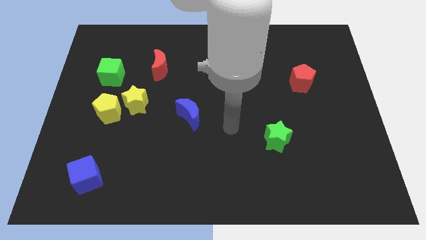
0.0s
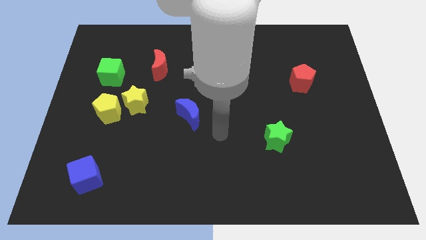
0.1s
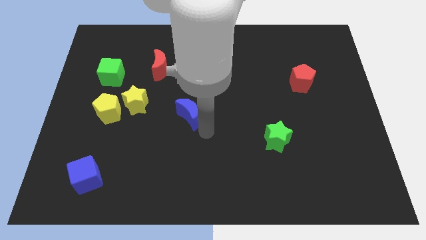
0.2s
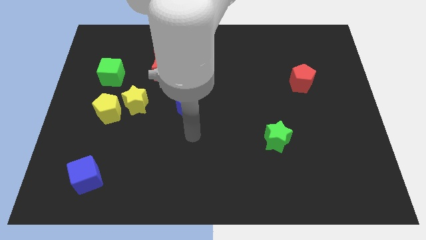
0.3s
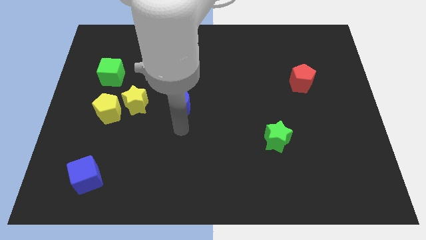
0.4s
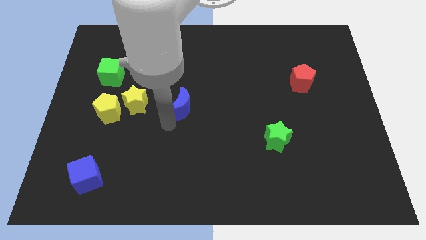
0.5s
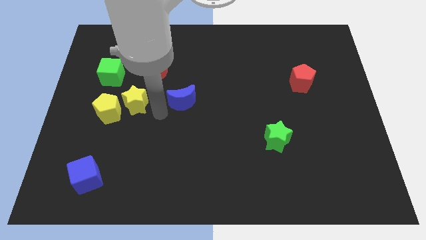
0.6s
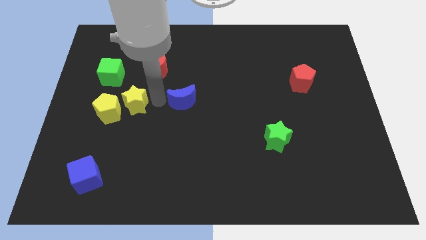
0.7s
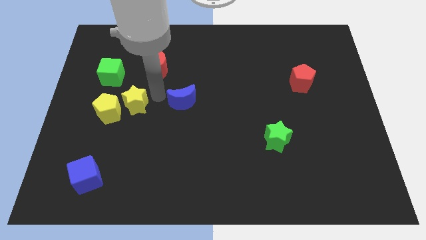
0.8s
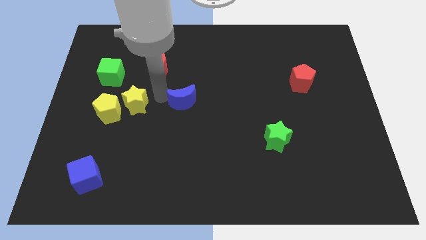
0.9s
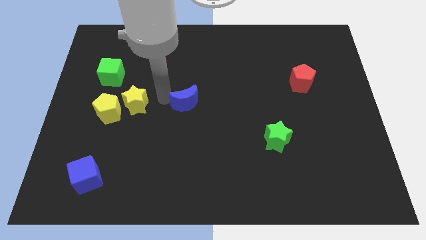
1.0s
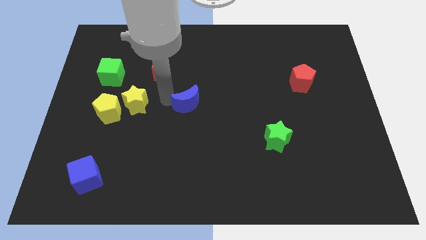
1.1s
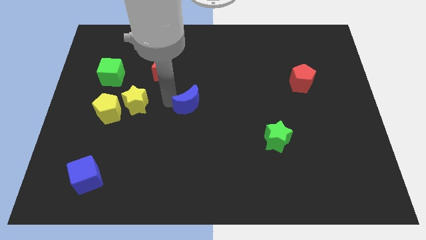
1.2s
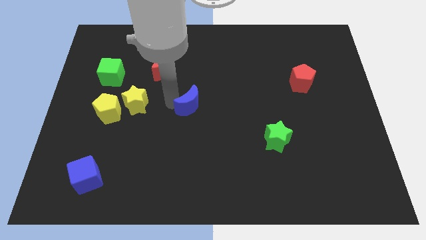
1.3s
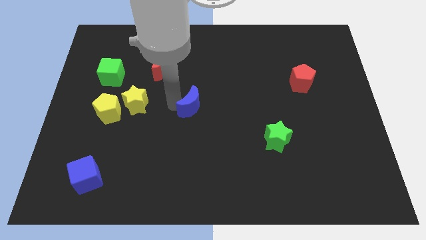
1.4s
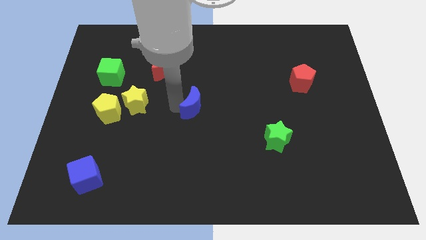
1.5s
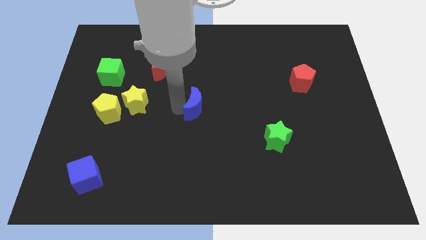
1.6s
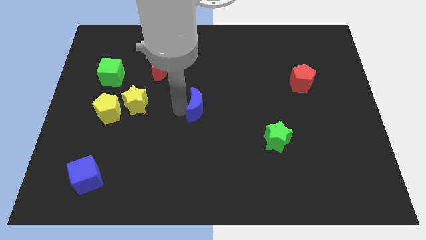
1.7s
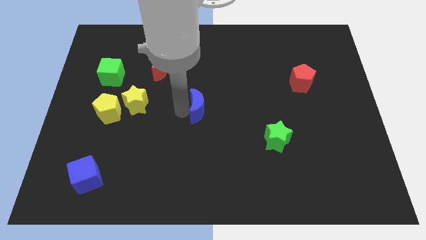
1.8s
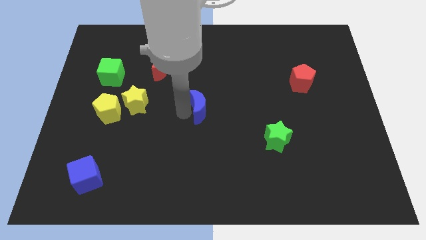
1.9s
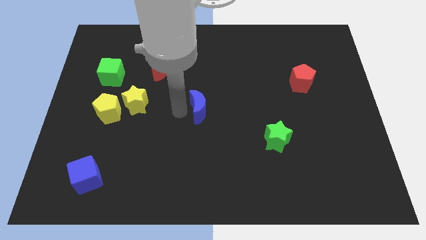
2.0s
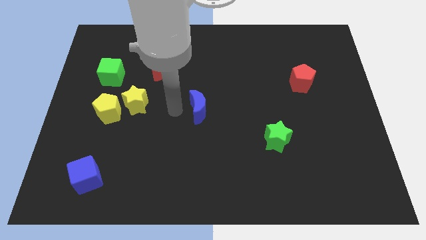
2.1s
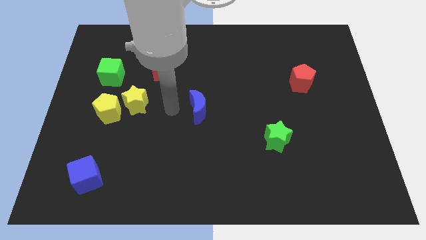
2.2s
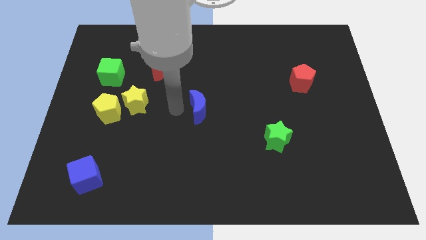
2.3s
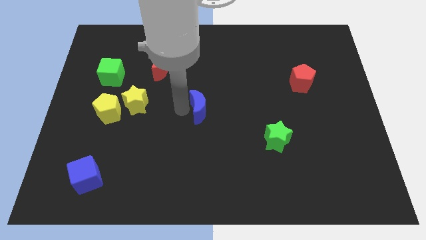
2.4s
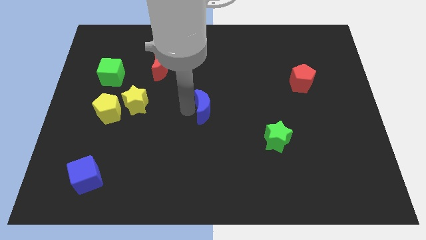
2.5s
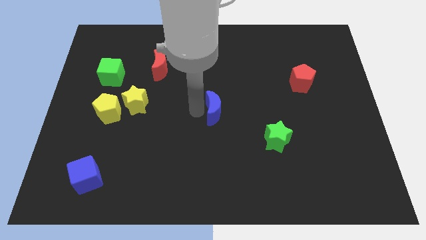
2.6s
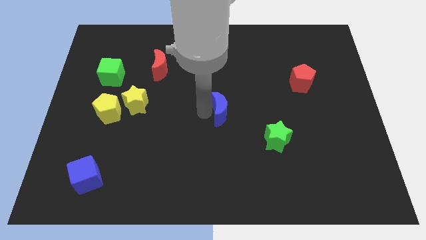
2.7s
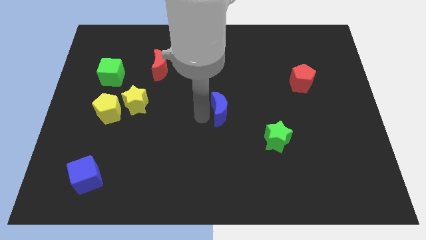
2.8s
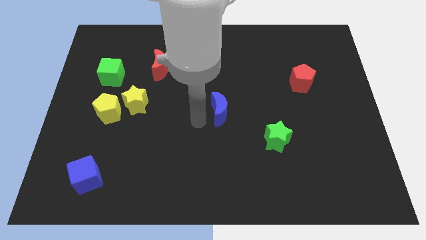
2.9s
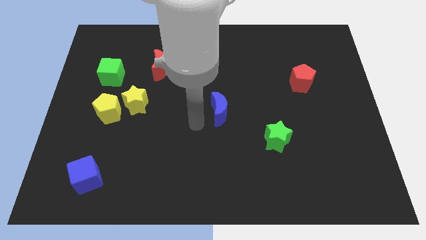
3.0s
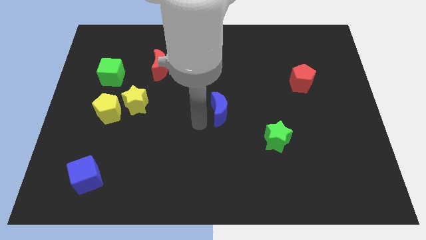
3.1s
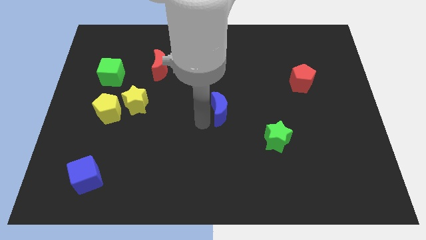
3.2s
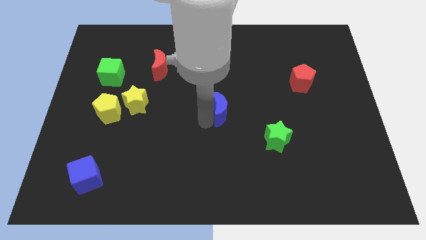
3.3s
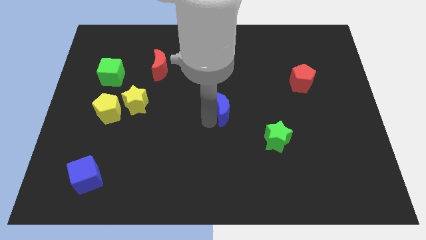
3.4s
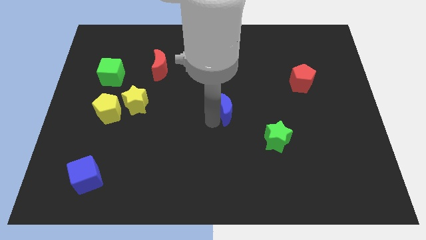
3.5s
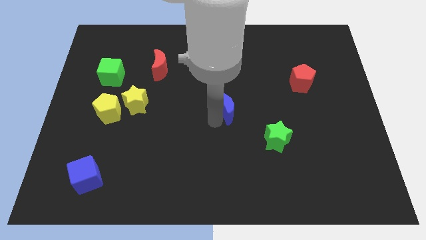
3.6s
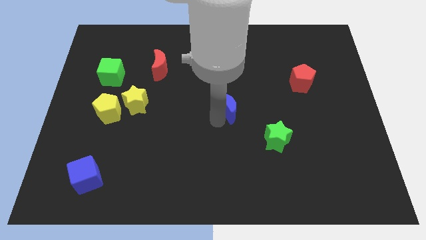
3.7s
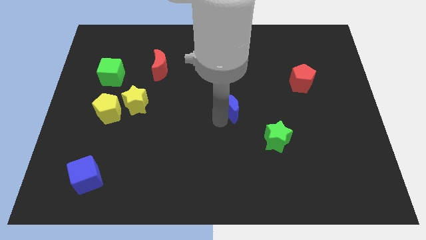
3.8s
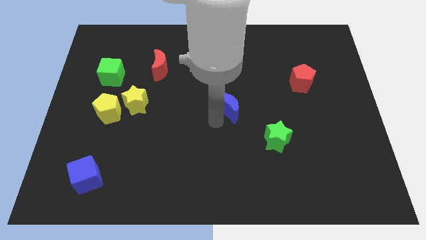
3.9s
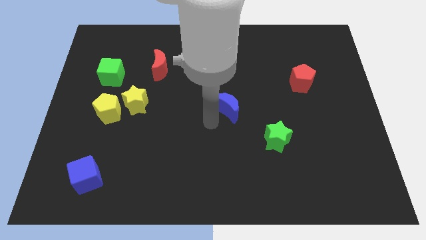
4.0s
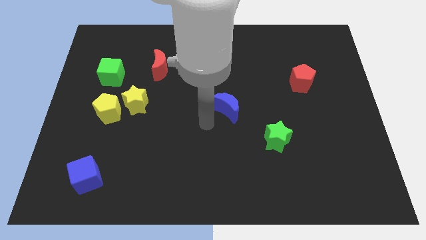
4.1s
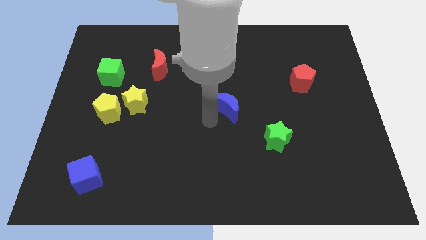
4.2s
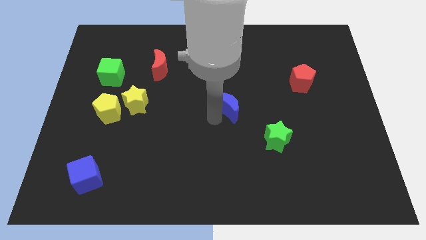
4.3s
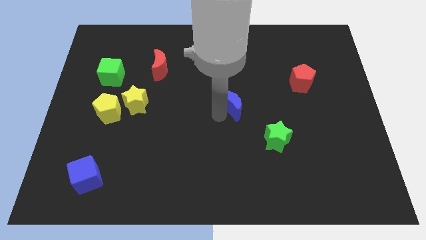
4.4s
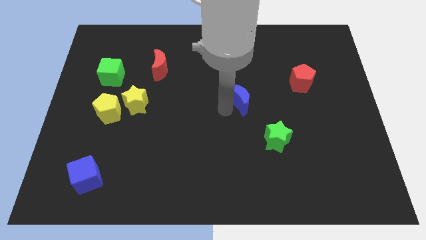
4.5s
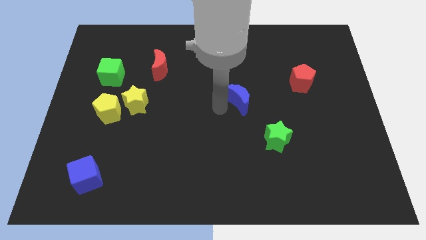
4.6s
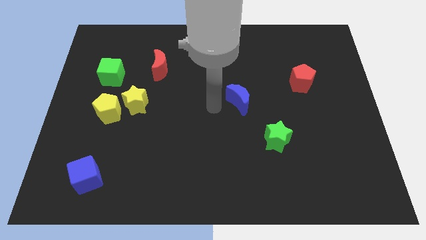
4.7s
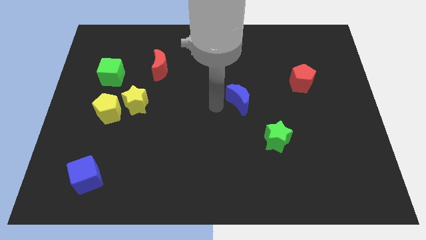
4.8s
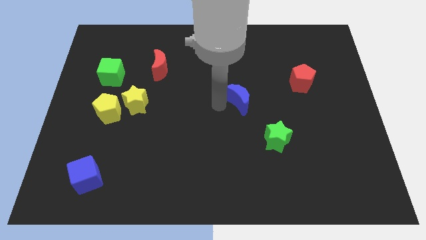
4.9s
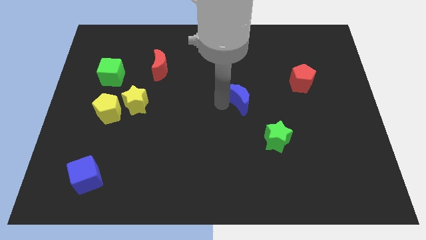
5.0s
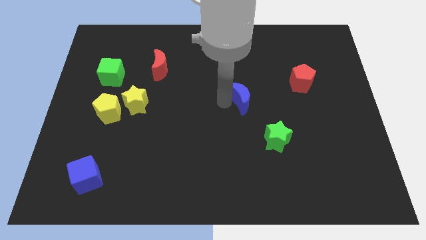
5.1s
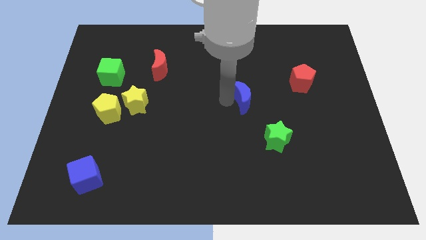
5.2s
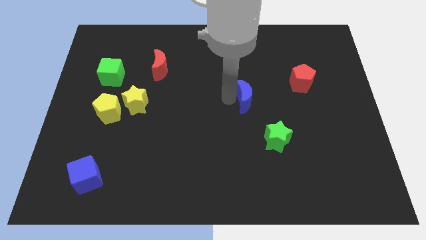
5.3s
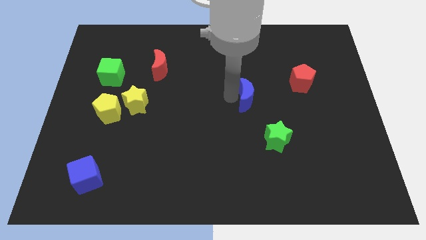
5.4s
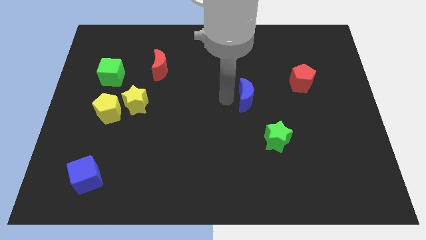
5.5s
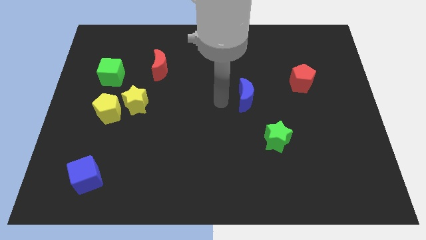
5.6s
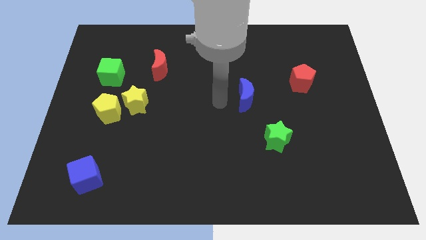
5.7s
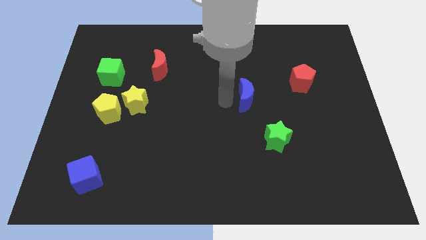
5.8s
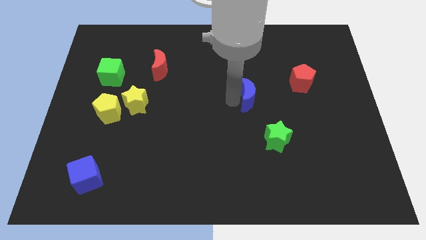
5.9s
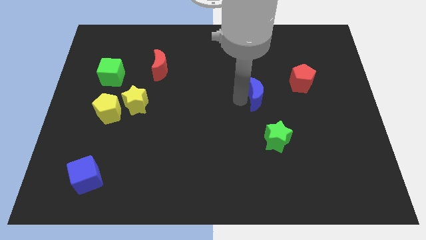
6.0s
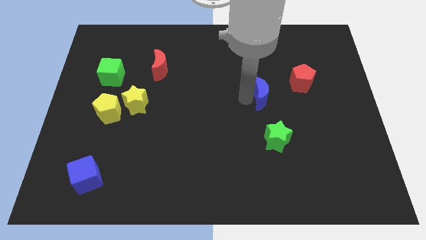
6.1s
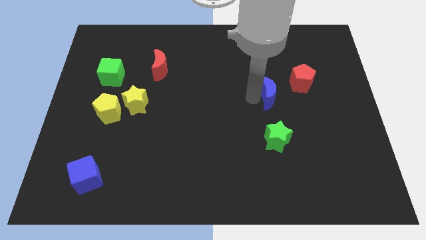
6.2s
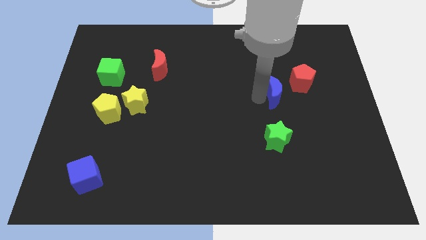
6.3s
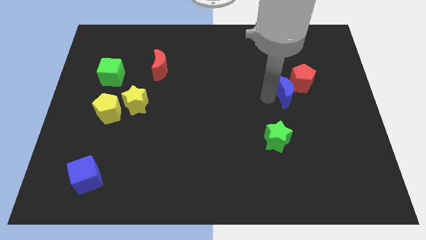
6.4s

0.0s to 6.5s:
slide the blue moon towards the red pentagon
